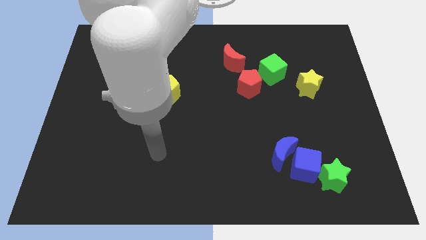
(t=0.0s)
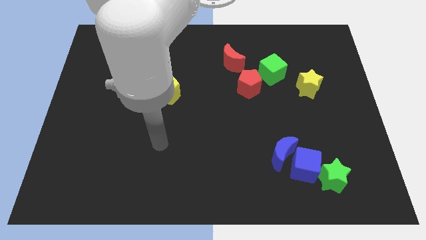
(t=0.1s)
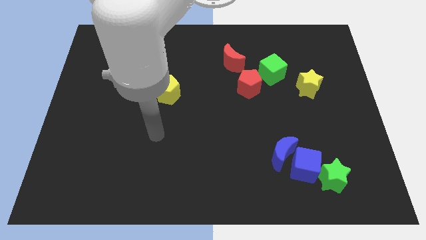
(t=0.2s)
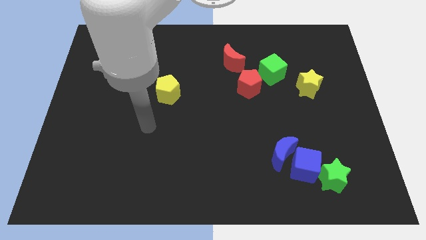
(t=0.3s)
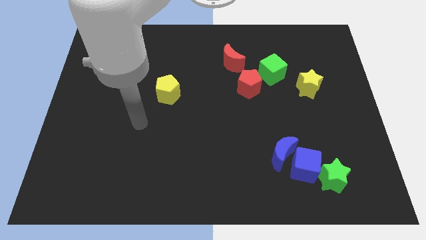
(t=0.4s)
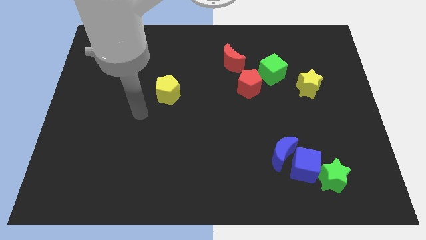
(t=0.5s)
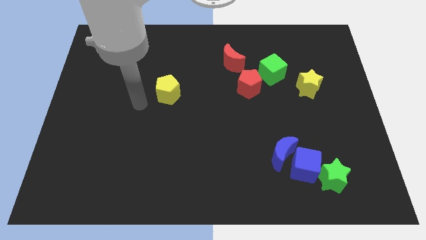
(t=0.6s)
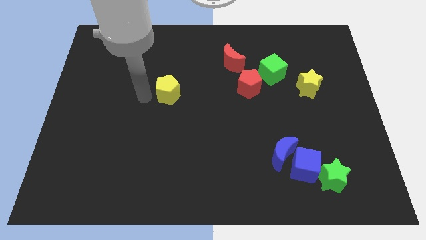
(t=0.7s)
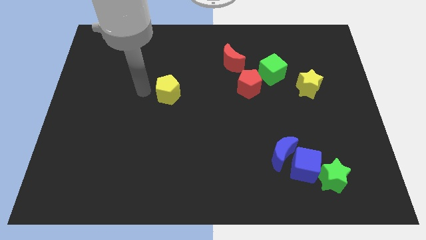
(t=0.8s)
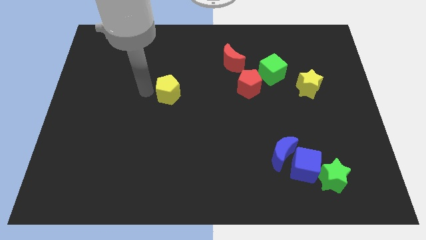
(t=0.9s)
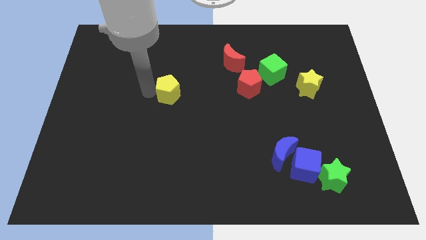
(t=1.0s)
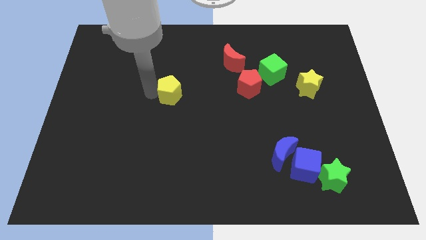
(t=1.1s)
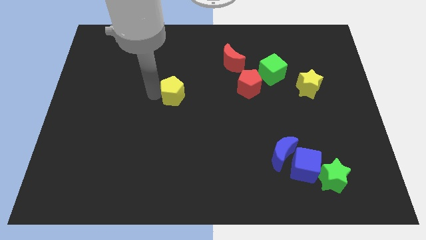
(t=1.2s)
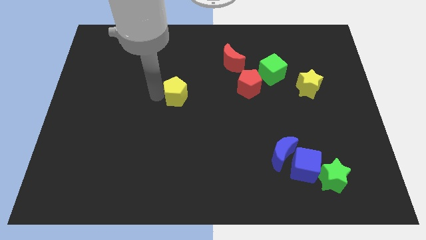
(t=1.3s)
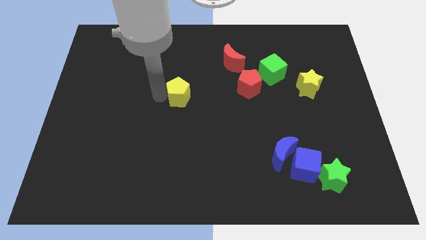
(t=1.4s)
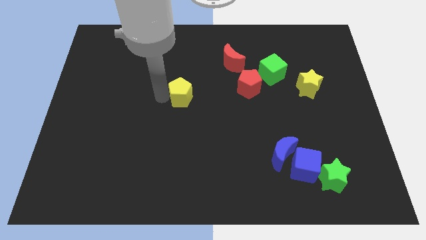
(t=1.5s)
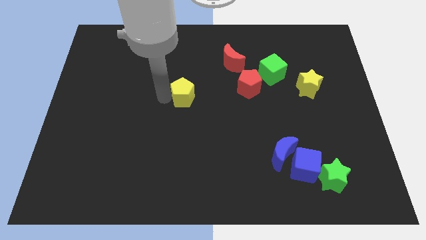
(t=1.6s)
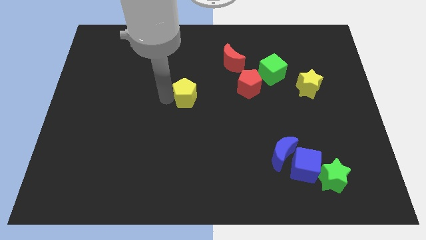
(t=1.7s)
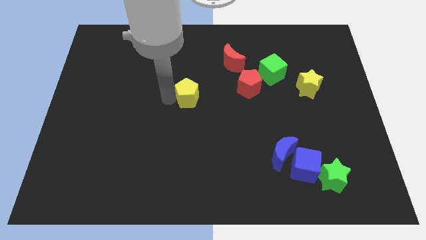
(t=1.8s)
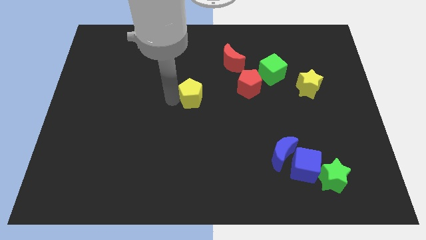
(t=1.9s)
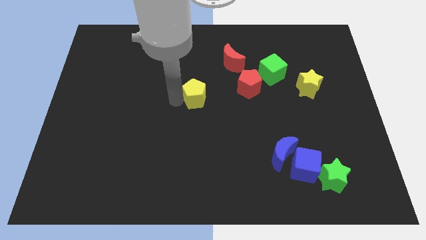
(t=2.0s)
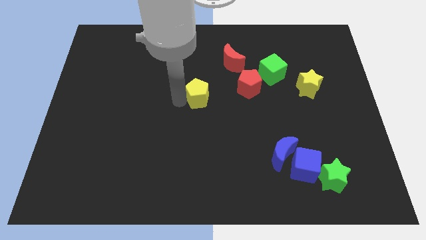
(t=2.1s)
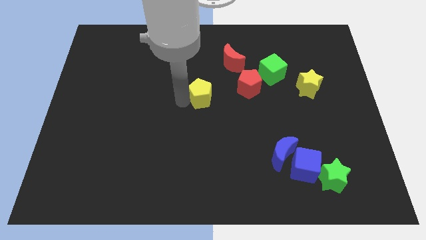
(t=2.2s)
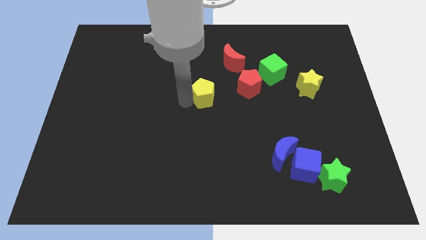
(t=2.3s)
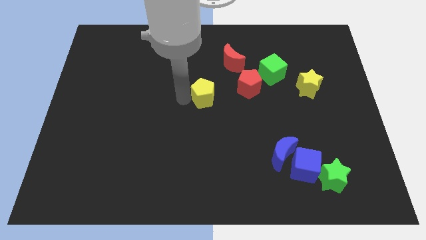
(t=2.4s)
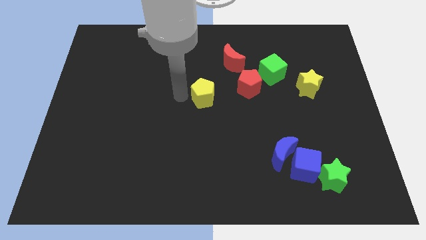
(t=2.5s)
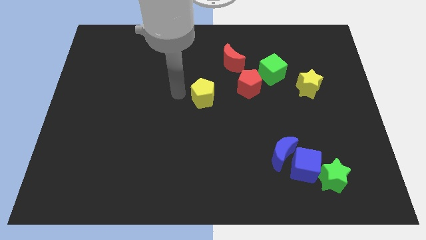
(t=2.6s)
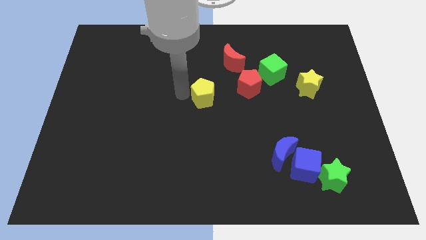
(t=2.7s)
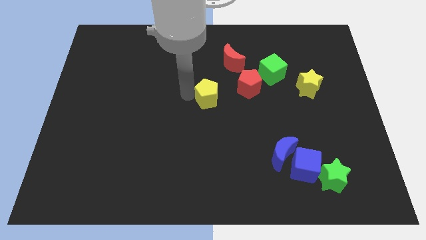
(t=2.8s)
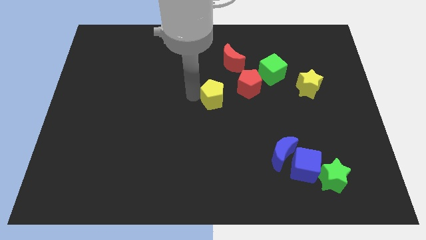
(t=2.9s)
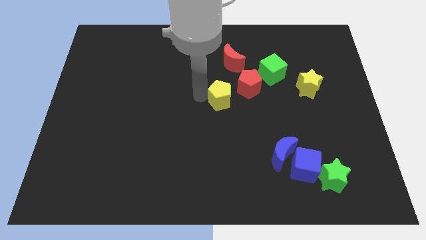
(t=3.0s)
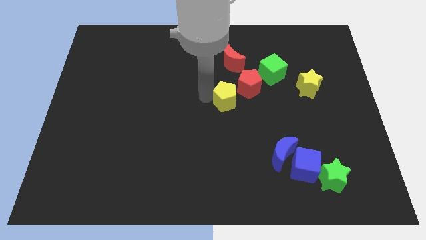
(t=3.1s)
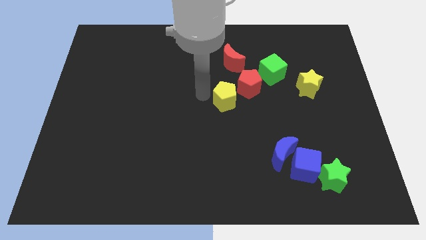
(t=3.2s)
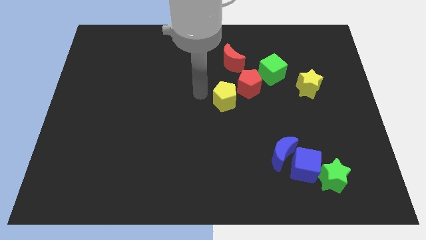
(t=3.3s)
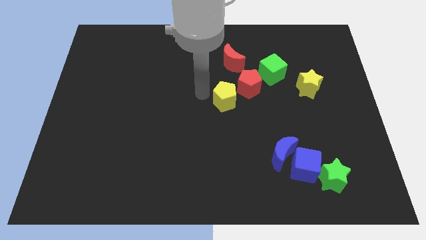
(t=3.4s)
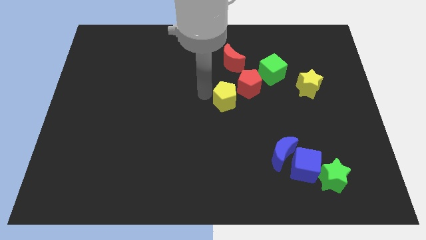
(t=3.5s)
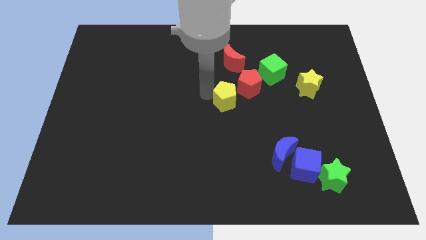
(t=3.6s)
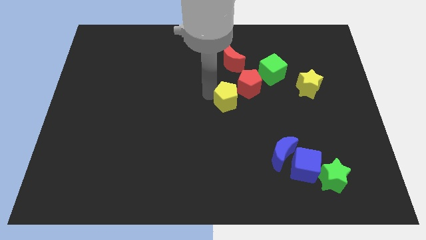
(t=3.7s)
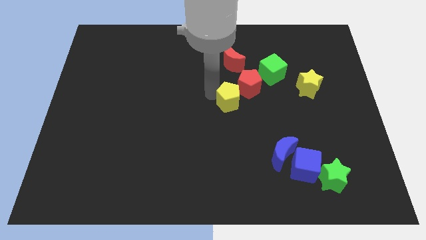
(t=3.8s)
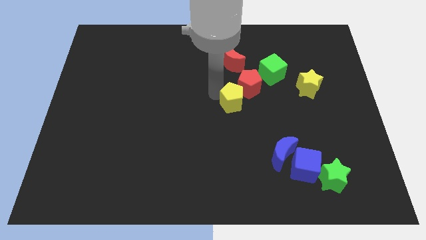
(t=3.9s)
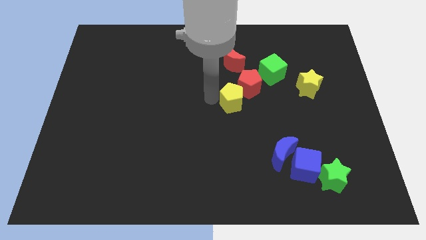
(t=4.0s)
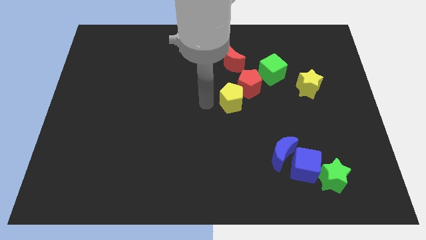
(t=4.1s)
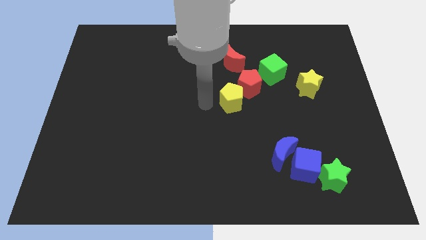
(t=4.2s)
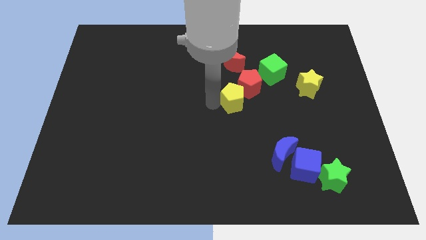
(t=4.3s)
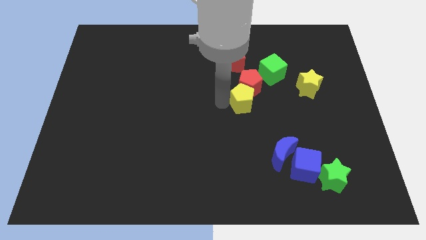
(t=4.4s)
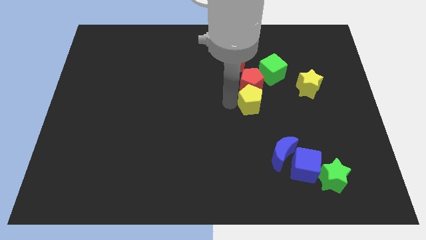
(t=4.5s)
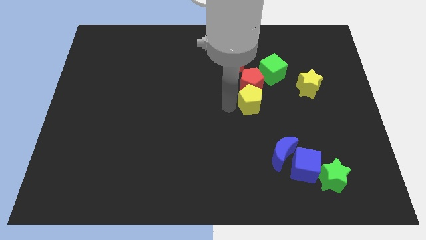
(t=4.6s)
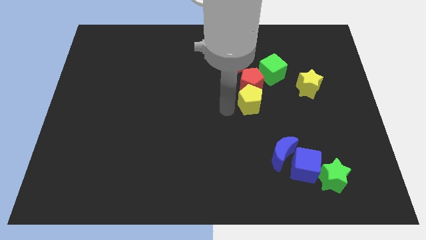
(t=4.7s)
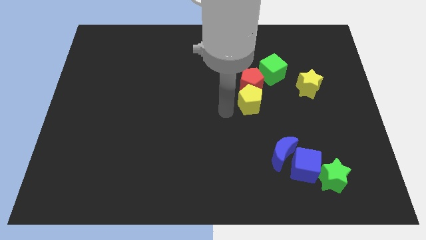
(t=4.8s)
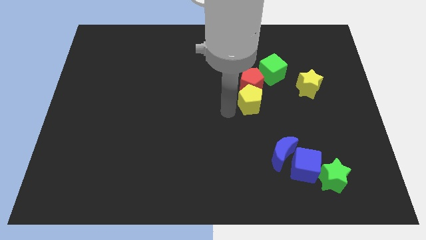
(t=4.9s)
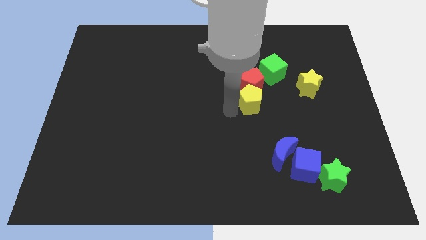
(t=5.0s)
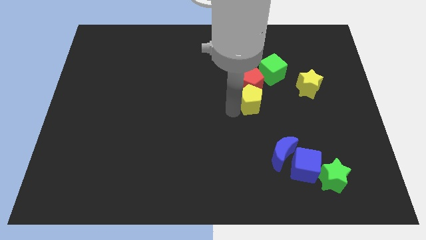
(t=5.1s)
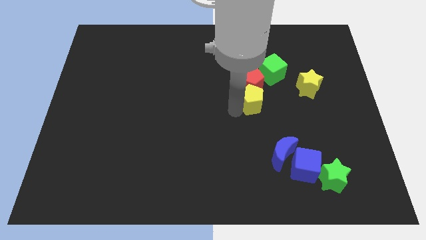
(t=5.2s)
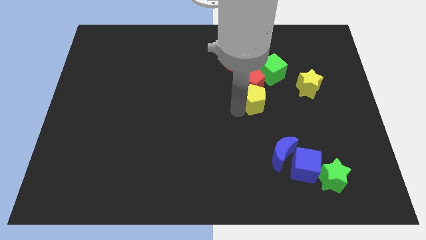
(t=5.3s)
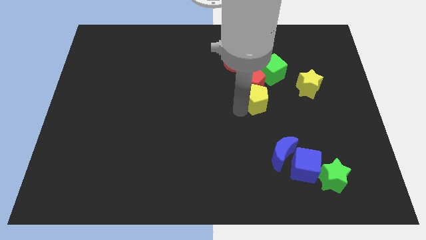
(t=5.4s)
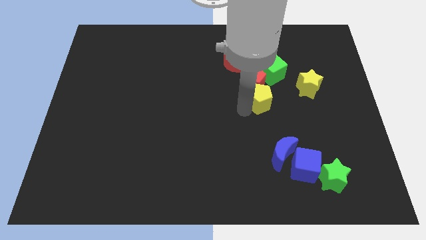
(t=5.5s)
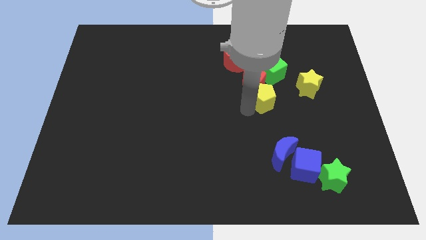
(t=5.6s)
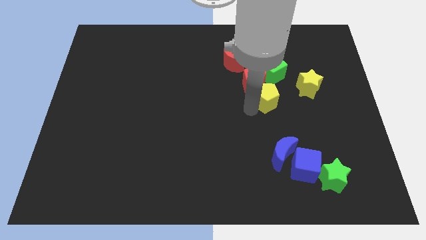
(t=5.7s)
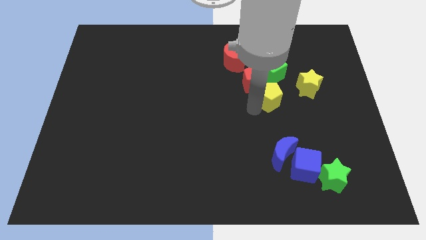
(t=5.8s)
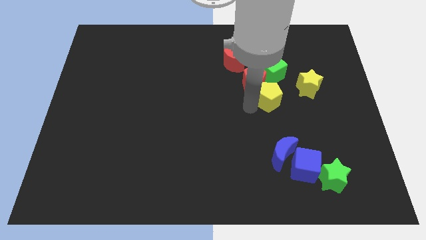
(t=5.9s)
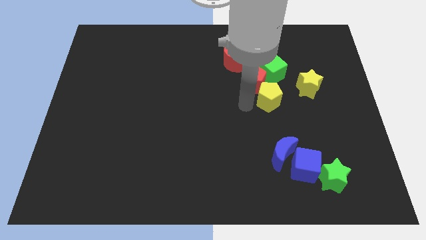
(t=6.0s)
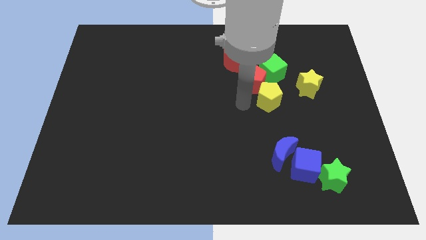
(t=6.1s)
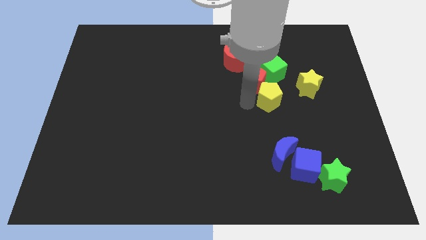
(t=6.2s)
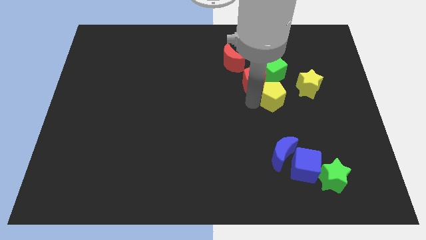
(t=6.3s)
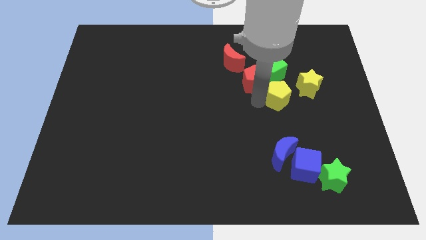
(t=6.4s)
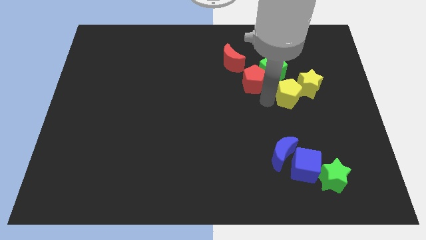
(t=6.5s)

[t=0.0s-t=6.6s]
move the yellow pentagon towards the yellow star
